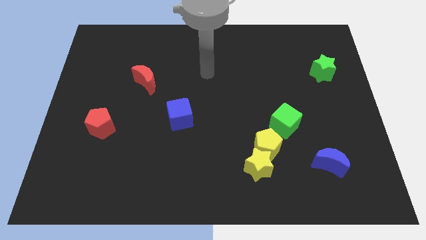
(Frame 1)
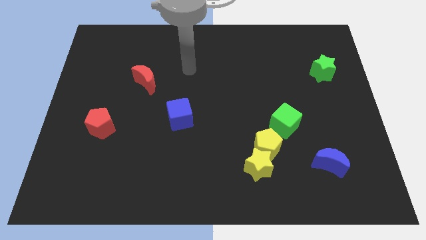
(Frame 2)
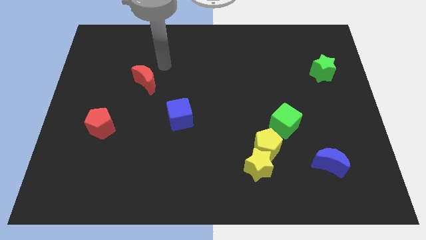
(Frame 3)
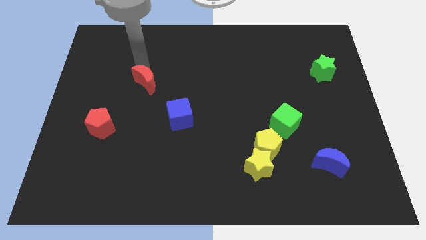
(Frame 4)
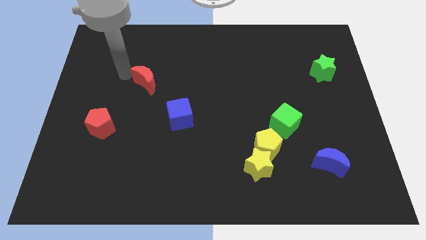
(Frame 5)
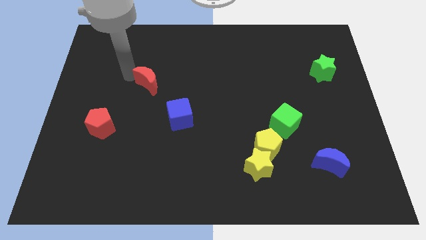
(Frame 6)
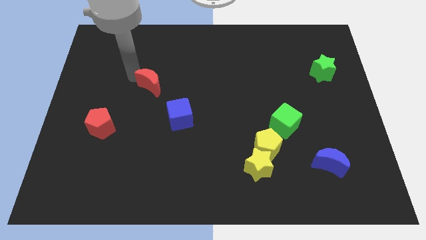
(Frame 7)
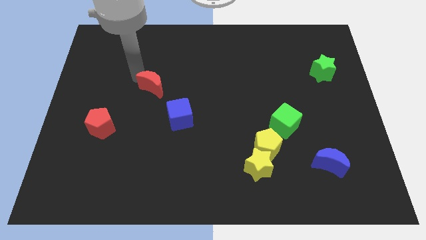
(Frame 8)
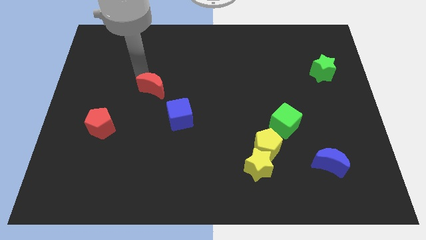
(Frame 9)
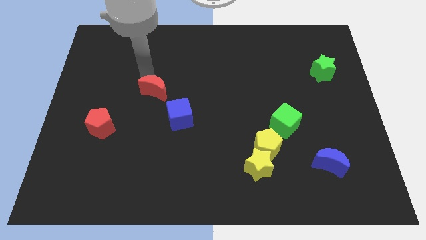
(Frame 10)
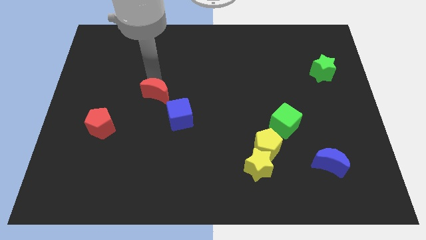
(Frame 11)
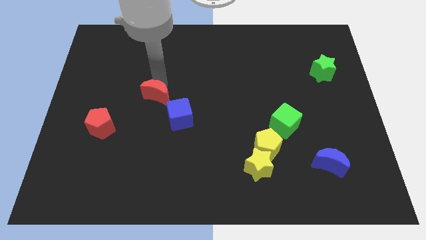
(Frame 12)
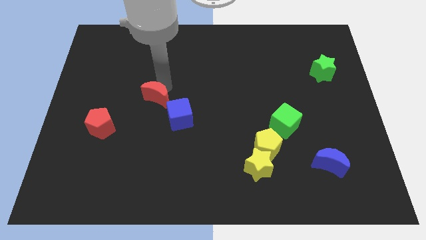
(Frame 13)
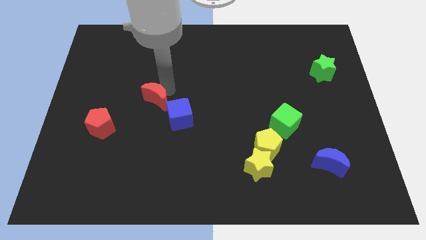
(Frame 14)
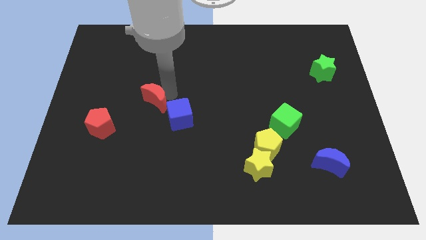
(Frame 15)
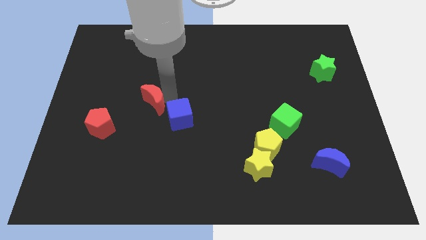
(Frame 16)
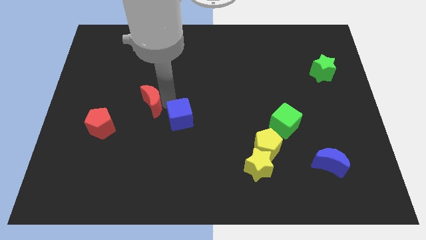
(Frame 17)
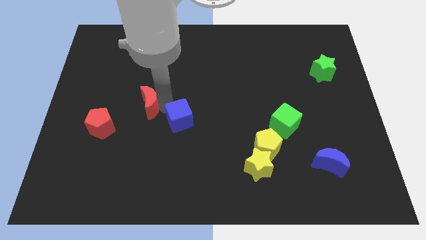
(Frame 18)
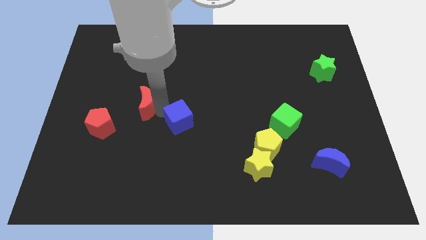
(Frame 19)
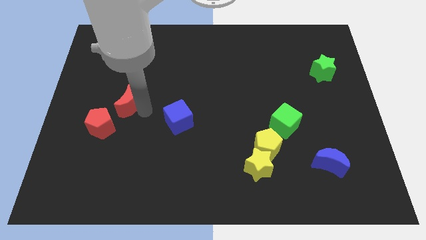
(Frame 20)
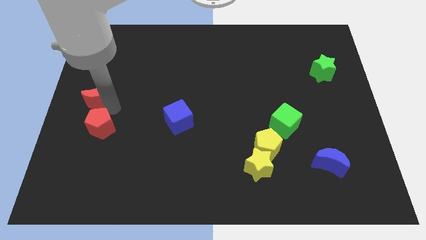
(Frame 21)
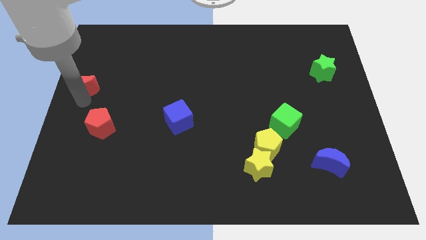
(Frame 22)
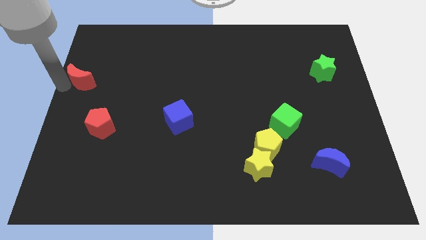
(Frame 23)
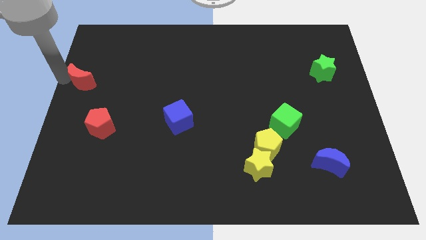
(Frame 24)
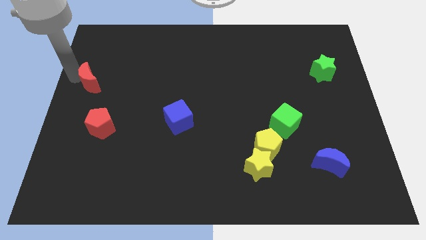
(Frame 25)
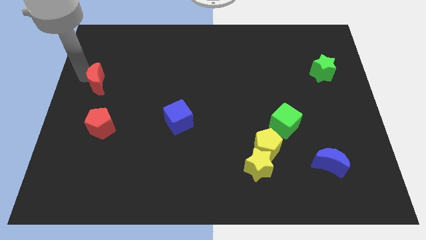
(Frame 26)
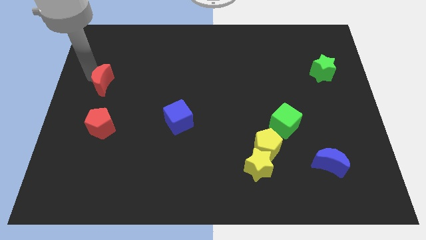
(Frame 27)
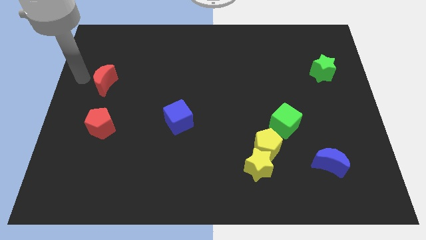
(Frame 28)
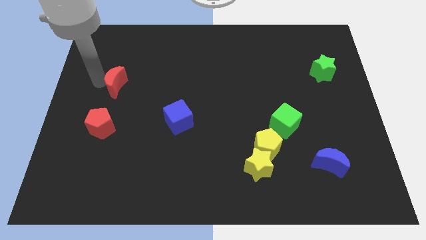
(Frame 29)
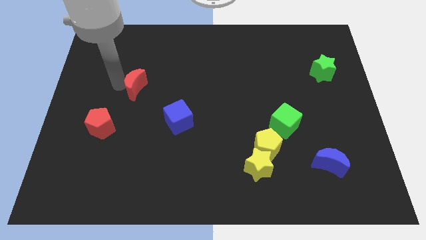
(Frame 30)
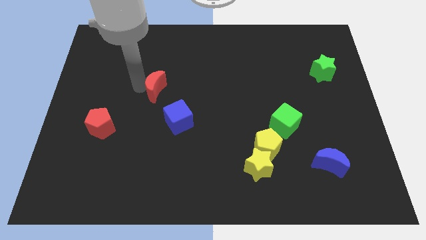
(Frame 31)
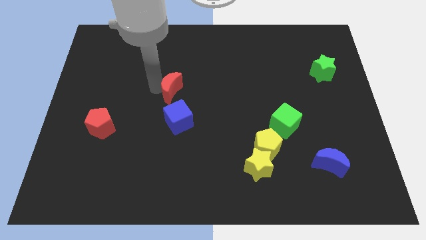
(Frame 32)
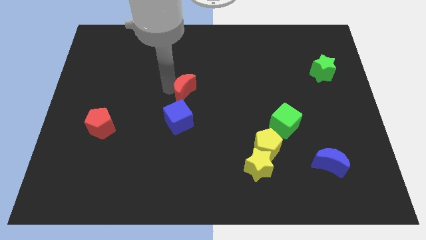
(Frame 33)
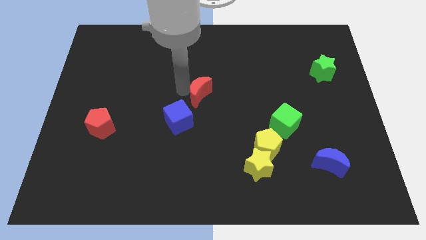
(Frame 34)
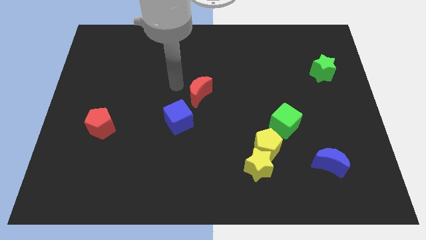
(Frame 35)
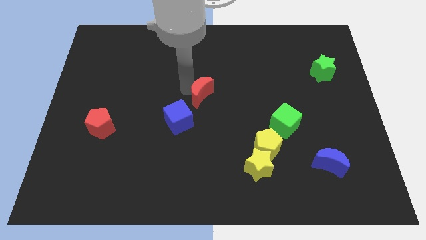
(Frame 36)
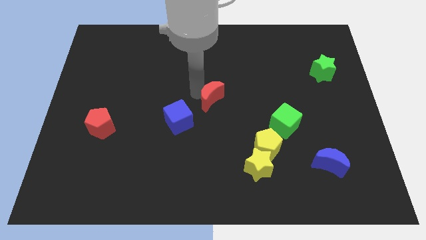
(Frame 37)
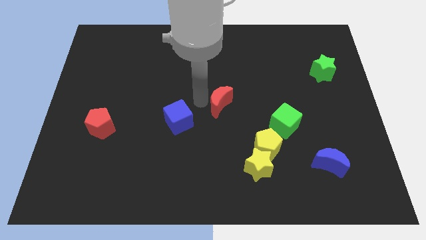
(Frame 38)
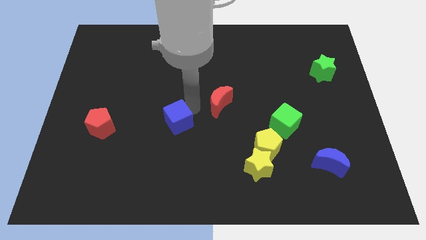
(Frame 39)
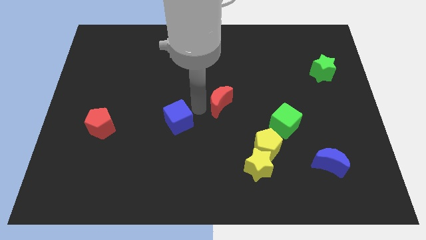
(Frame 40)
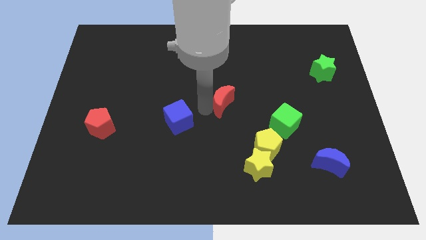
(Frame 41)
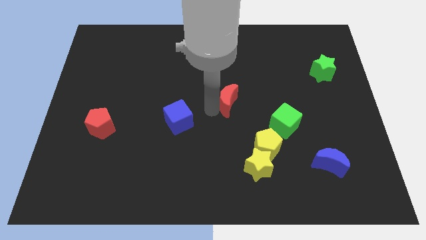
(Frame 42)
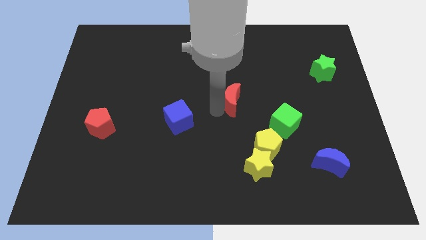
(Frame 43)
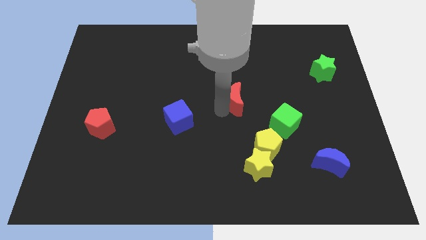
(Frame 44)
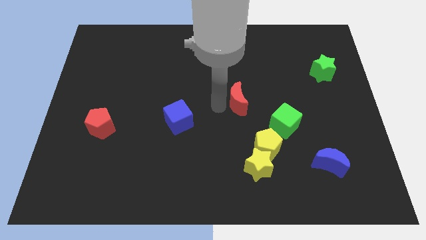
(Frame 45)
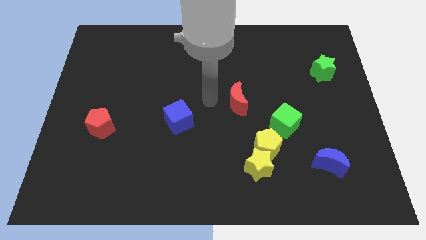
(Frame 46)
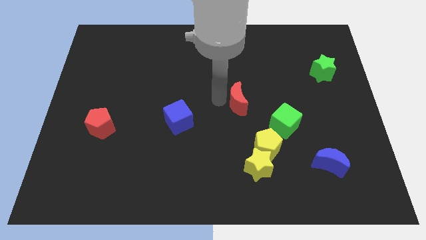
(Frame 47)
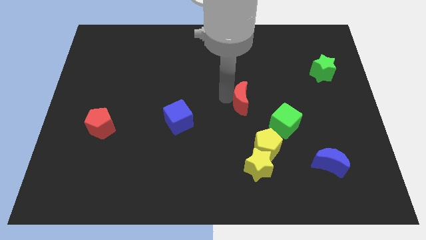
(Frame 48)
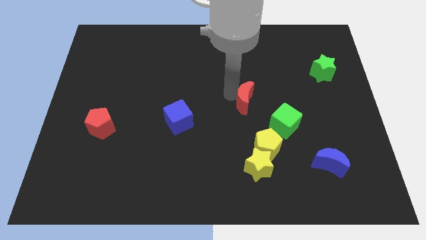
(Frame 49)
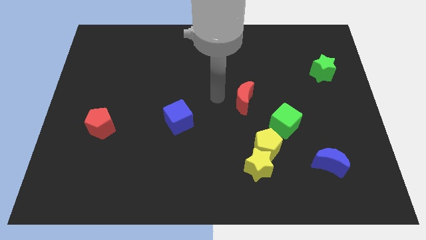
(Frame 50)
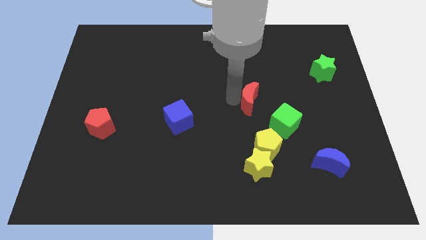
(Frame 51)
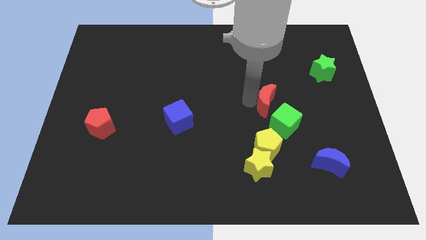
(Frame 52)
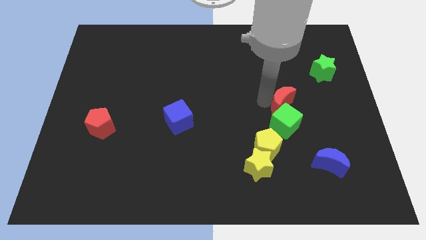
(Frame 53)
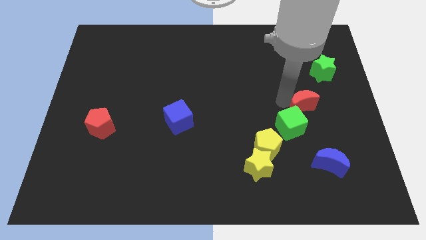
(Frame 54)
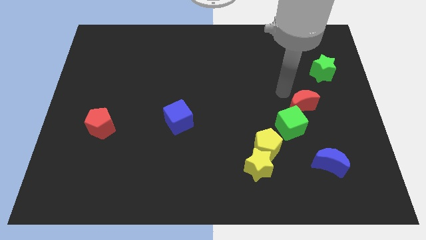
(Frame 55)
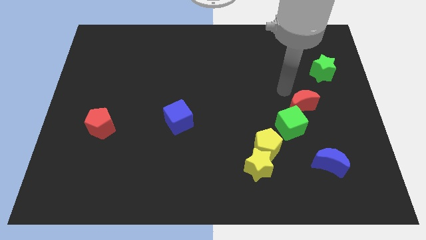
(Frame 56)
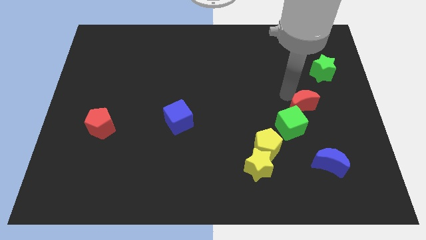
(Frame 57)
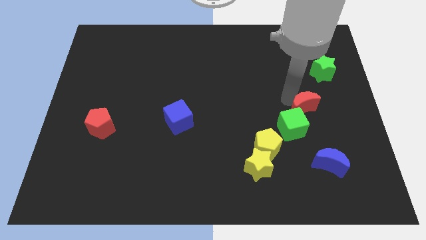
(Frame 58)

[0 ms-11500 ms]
push the red moon to the top of the blue moon

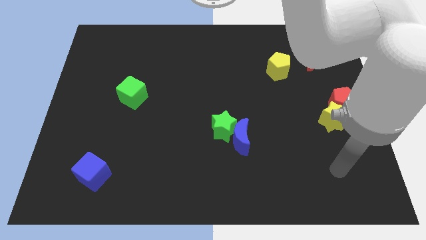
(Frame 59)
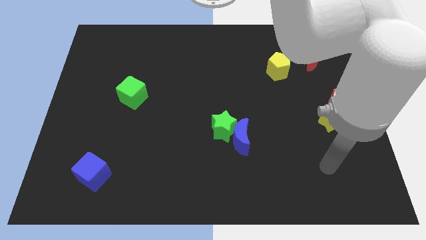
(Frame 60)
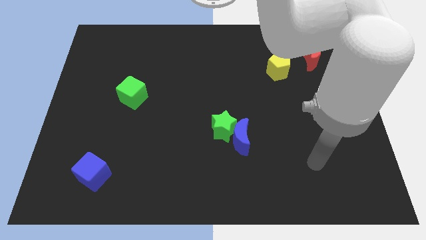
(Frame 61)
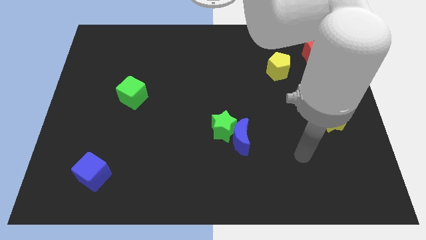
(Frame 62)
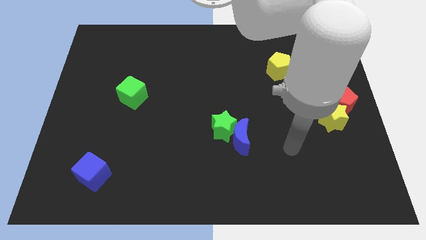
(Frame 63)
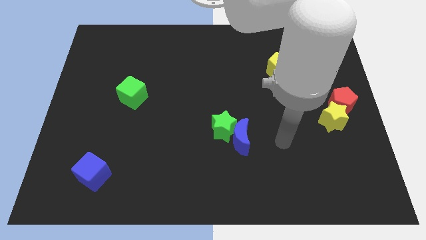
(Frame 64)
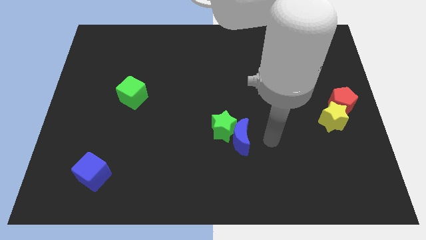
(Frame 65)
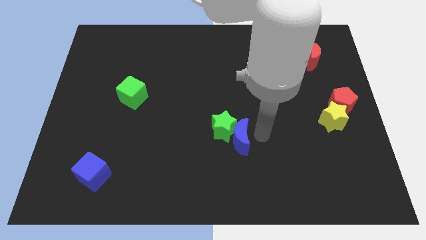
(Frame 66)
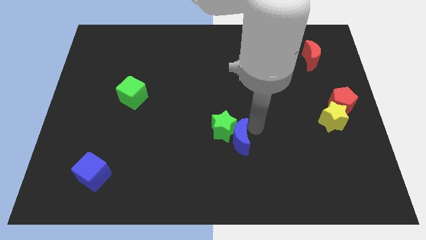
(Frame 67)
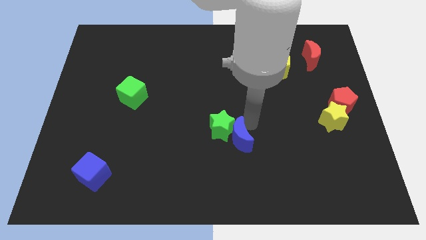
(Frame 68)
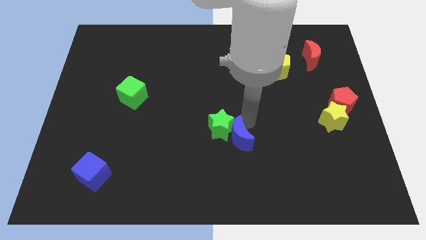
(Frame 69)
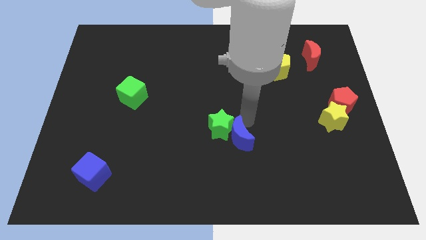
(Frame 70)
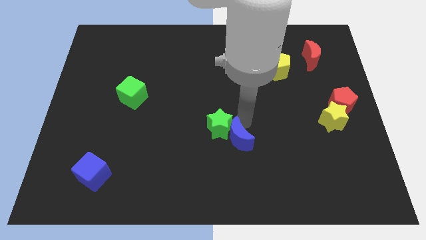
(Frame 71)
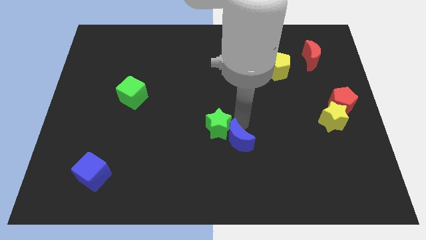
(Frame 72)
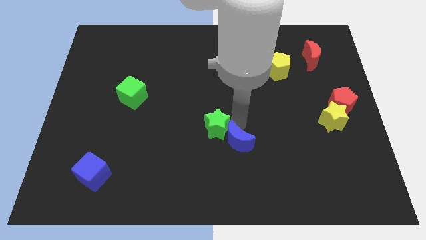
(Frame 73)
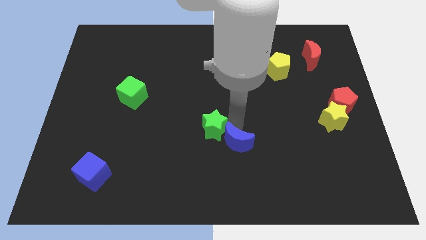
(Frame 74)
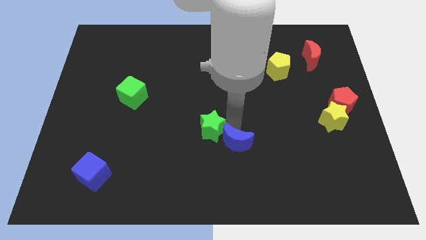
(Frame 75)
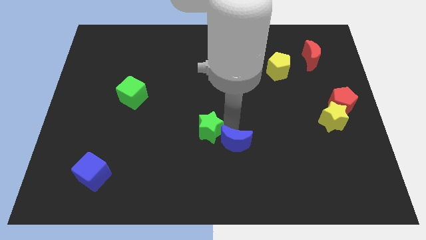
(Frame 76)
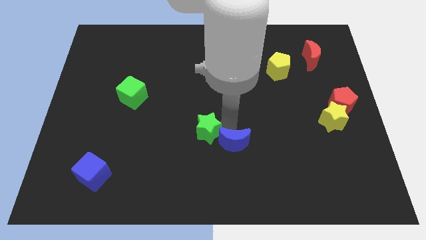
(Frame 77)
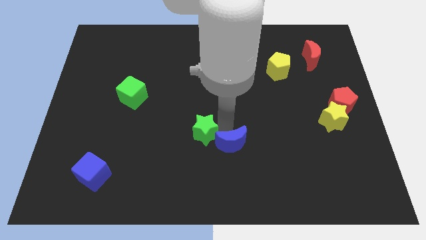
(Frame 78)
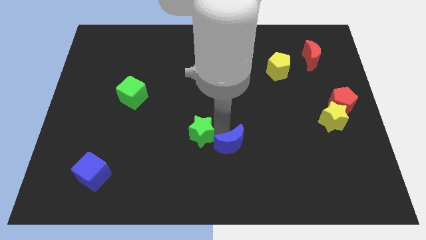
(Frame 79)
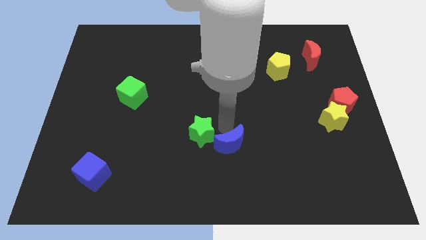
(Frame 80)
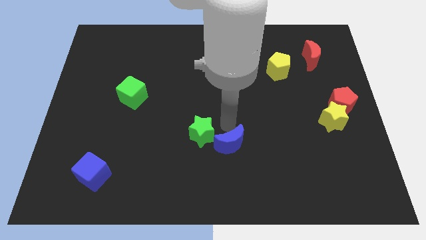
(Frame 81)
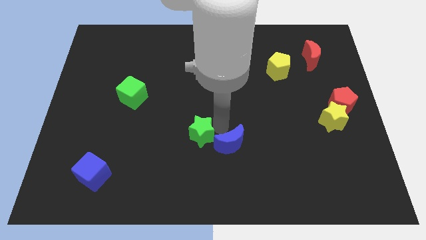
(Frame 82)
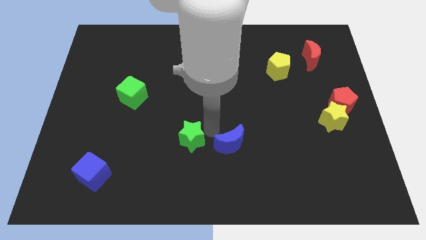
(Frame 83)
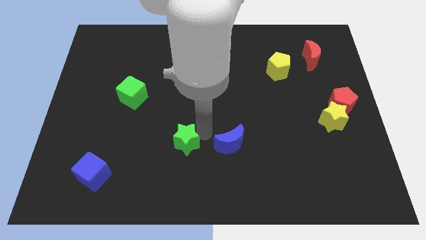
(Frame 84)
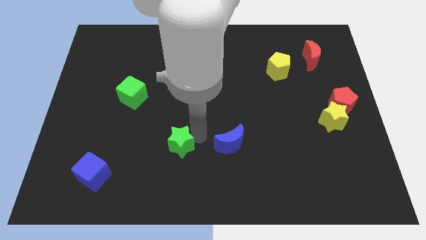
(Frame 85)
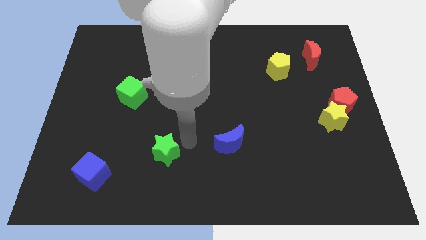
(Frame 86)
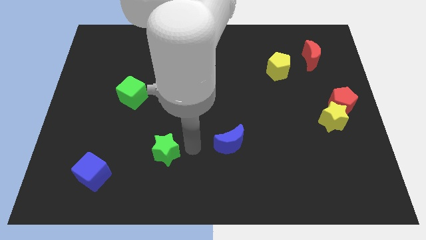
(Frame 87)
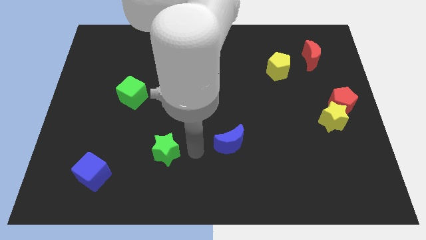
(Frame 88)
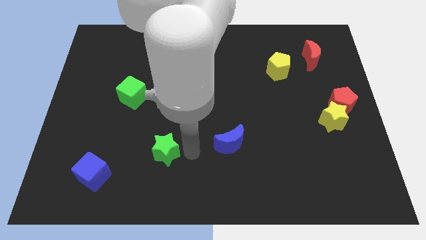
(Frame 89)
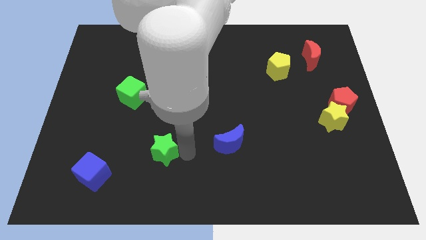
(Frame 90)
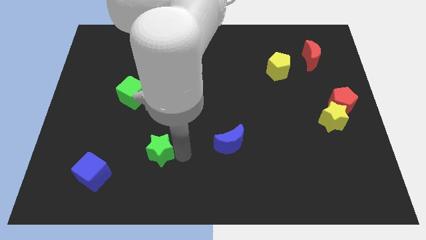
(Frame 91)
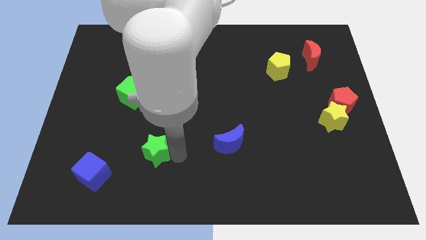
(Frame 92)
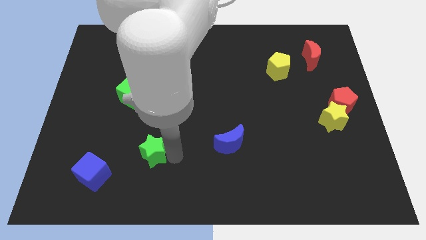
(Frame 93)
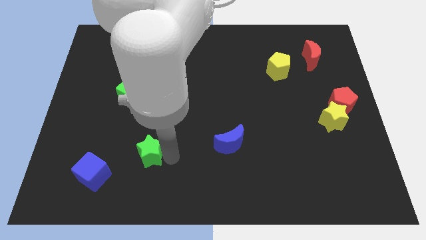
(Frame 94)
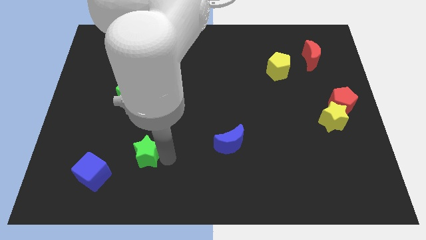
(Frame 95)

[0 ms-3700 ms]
put the green star diagonally up and to the right of the blue cube
